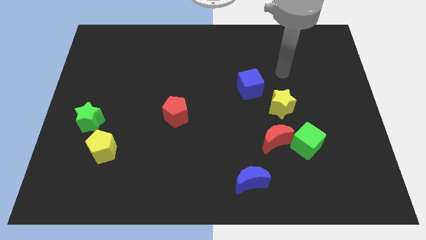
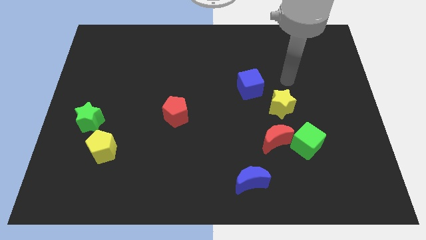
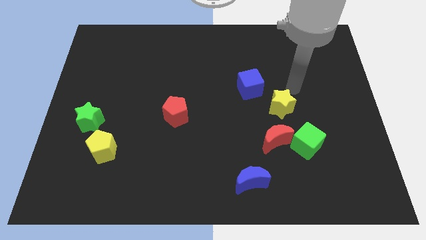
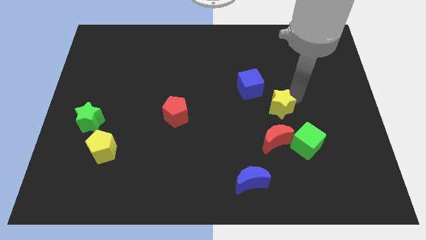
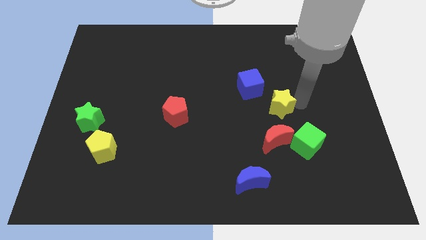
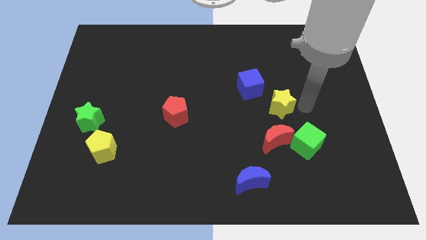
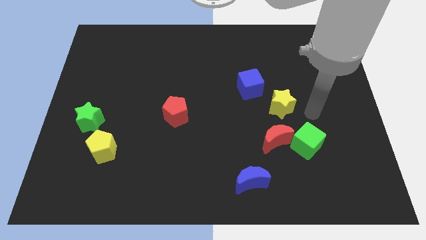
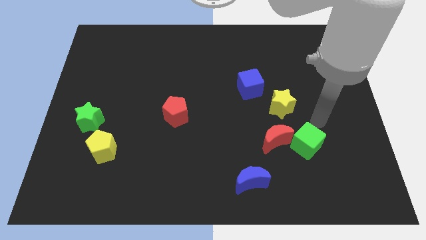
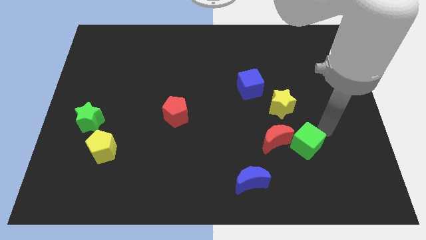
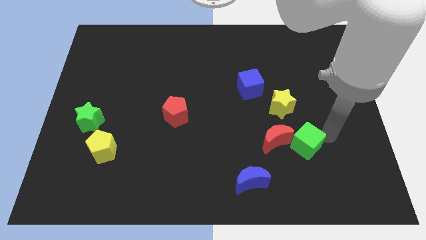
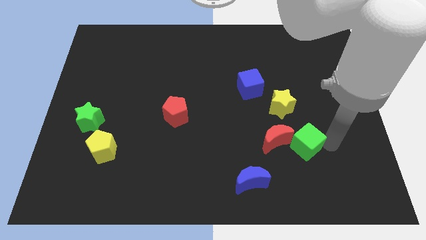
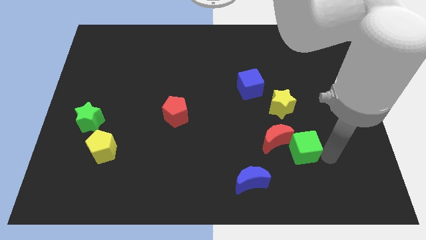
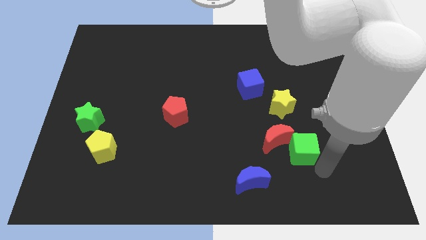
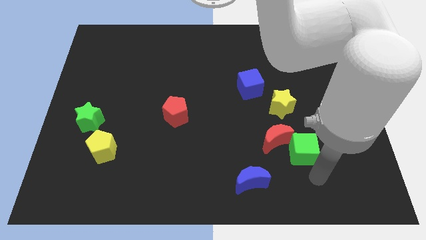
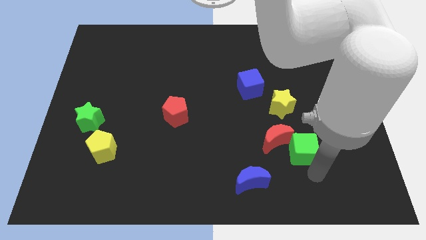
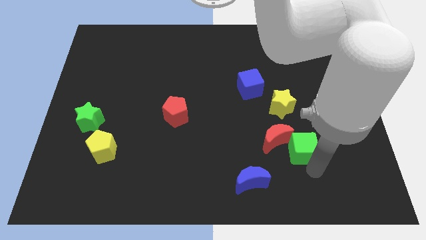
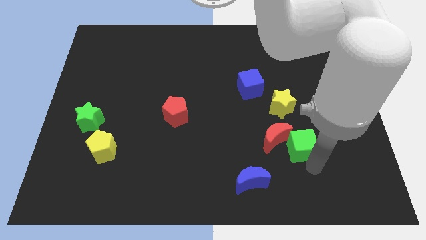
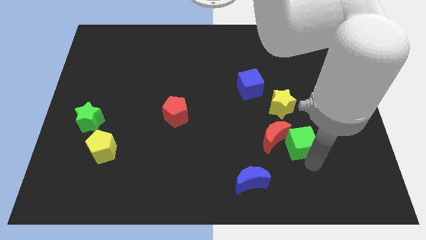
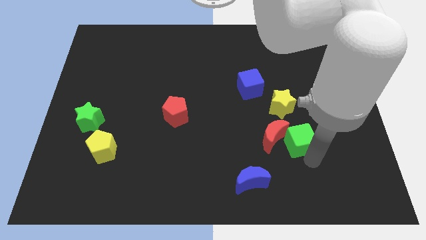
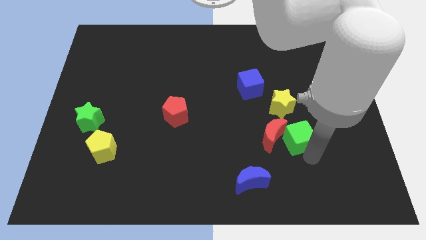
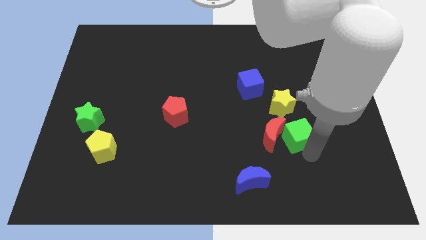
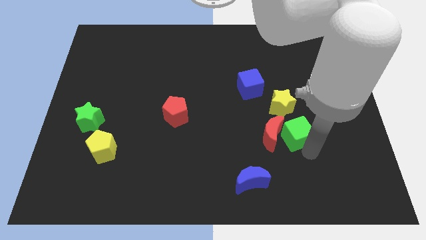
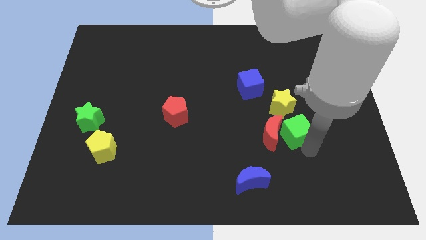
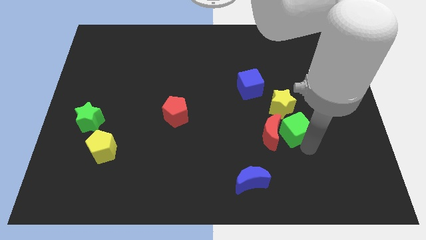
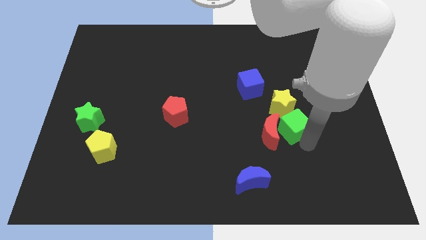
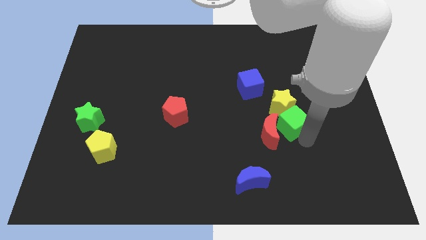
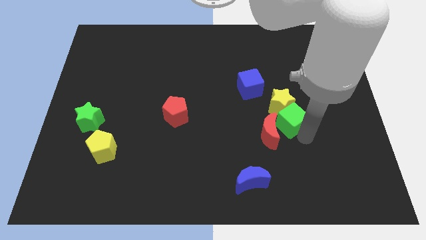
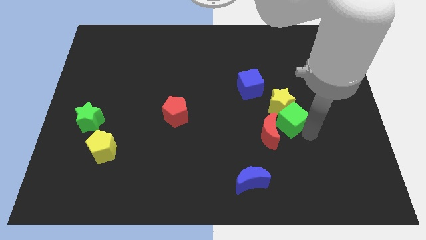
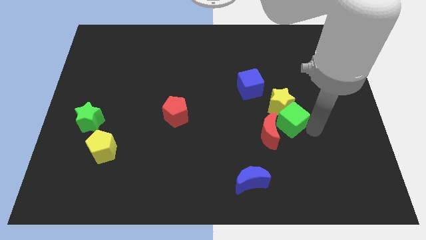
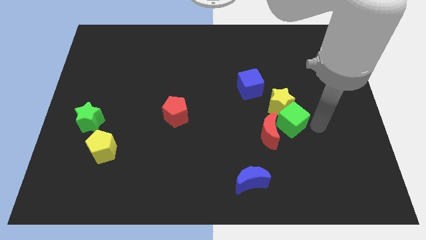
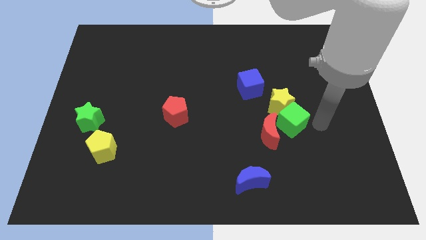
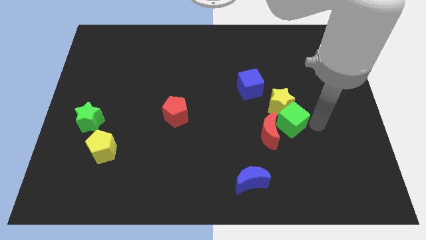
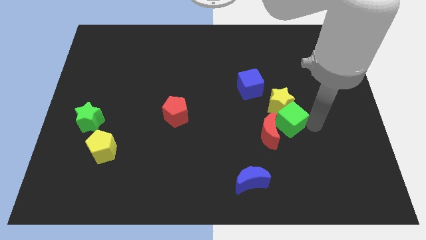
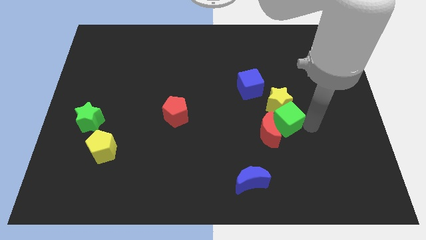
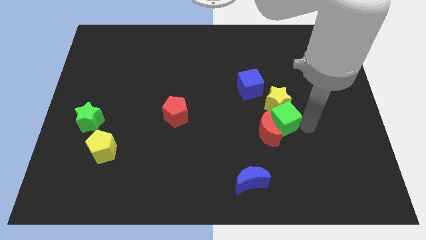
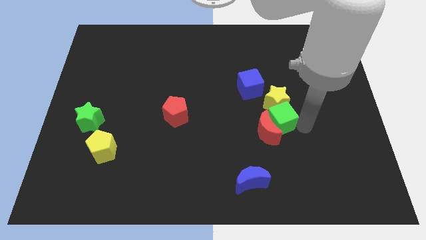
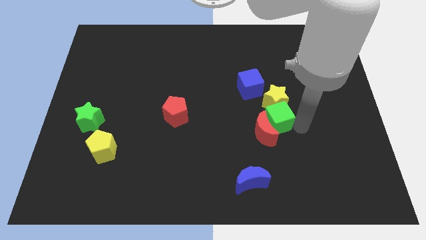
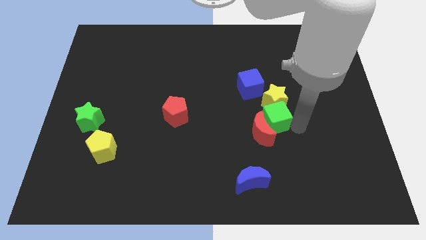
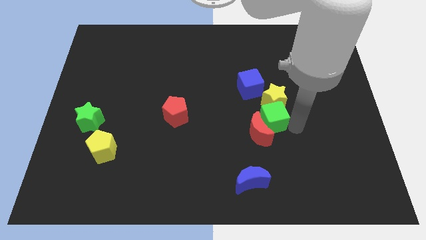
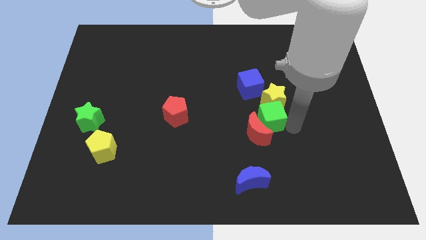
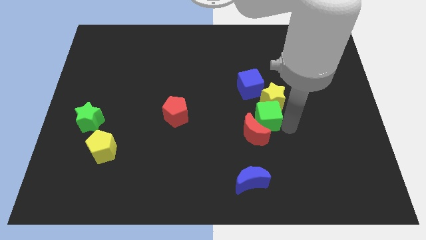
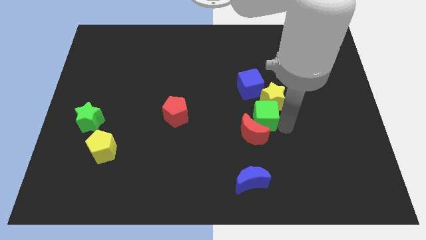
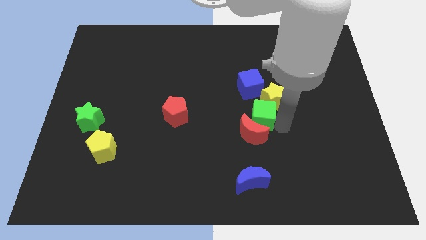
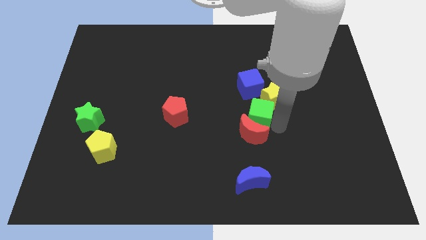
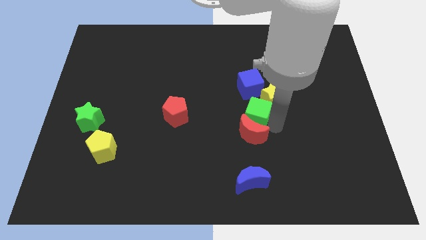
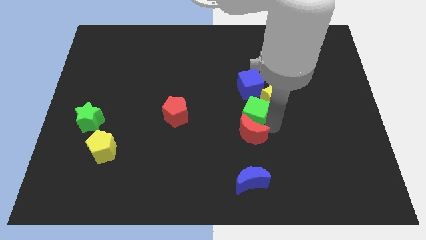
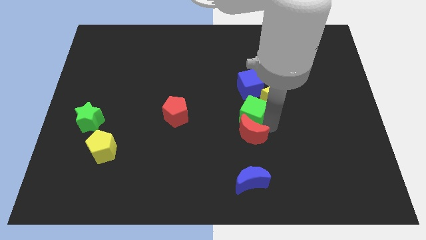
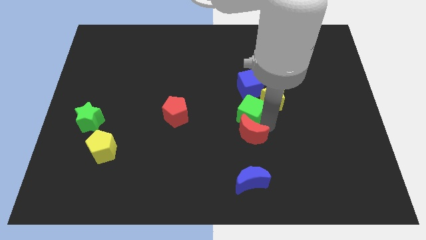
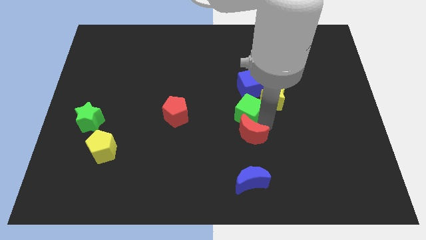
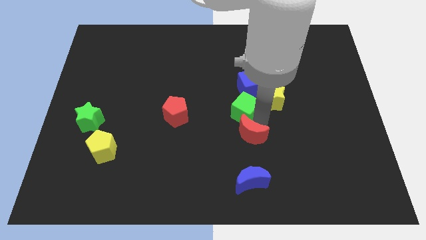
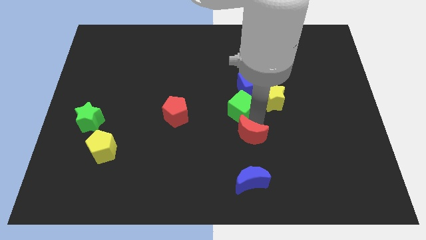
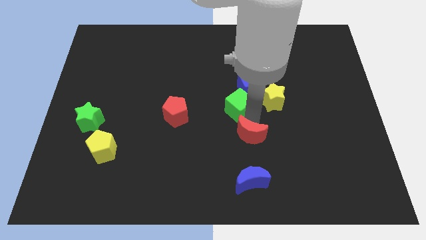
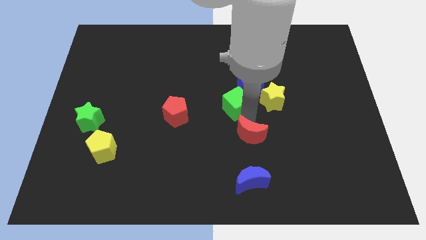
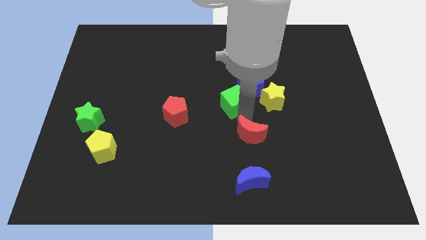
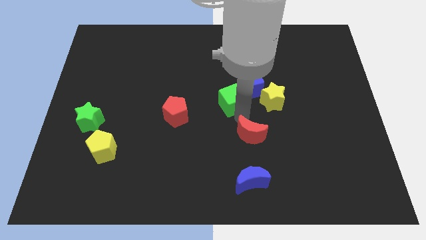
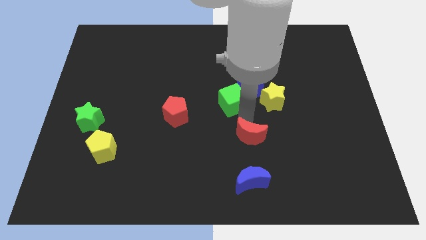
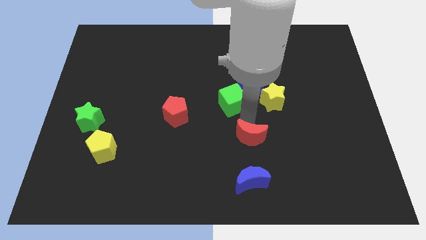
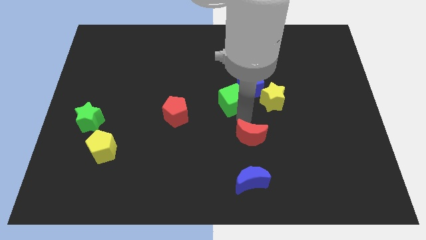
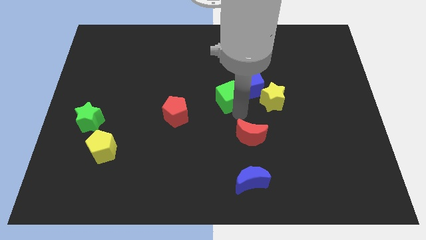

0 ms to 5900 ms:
push the green cube up and then left

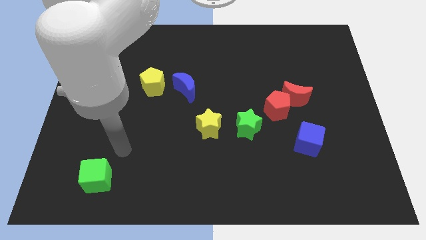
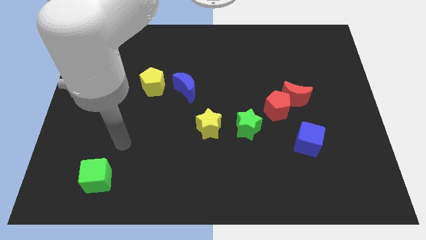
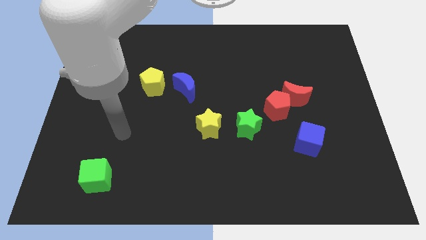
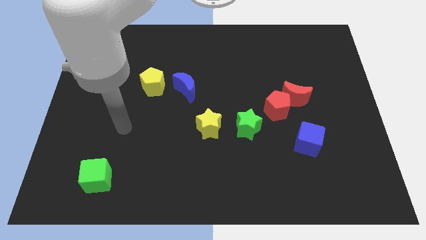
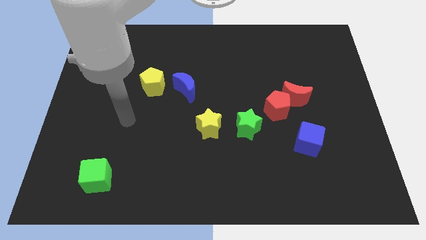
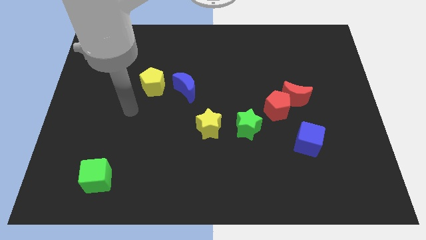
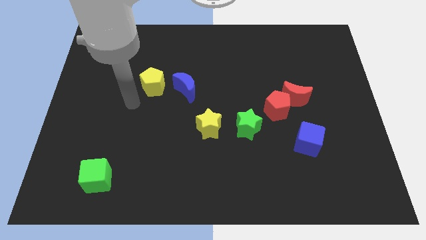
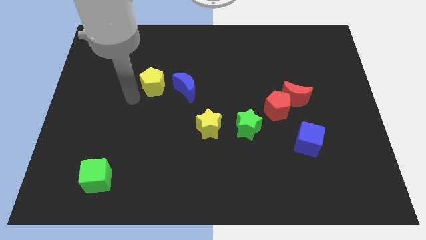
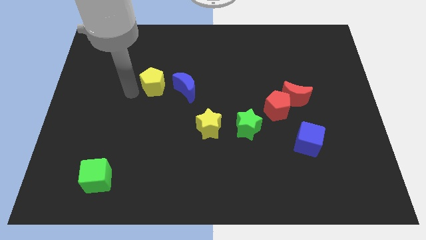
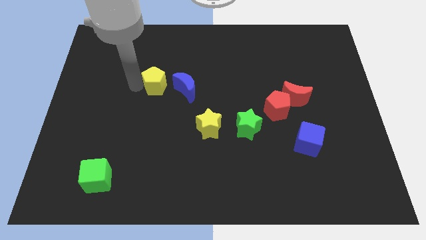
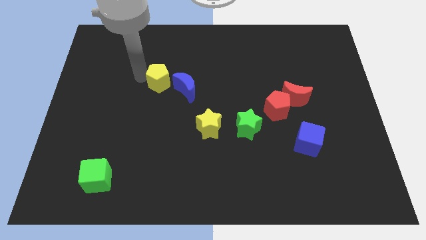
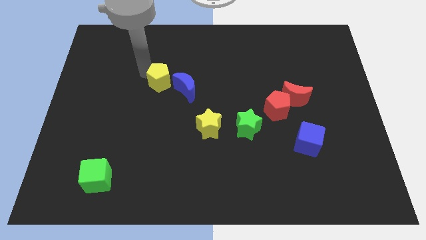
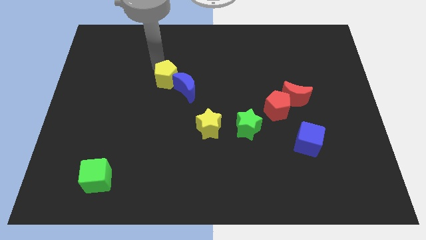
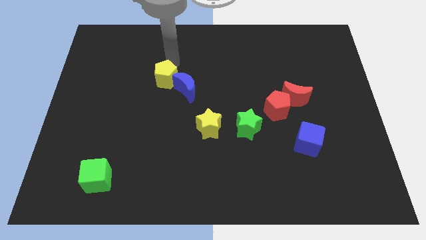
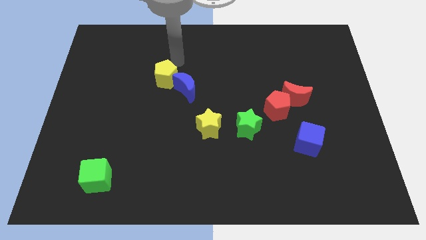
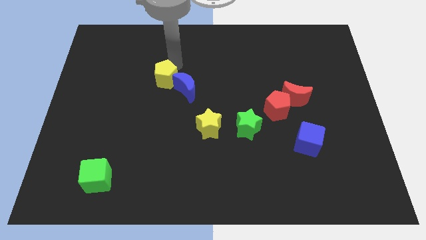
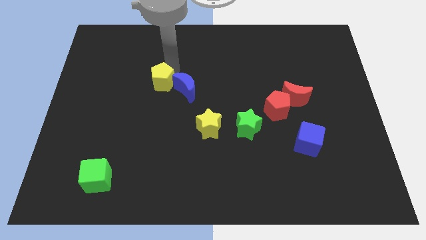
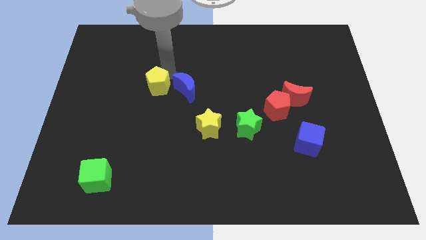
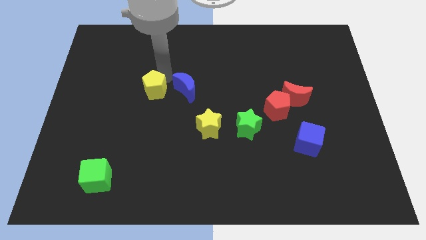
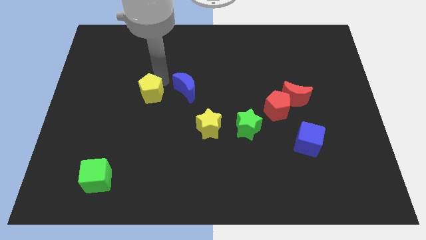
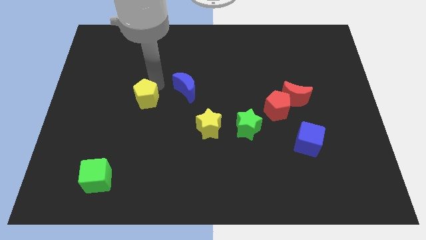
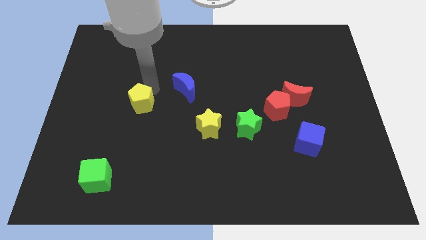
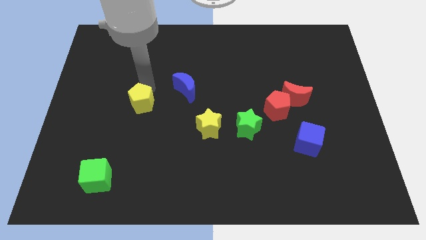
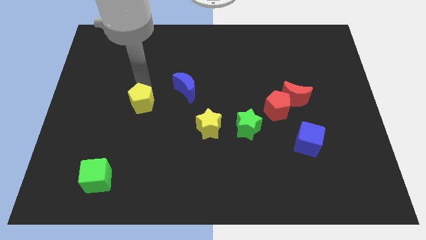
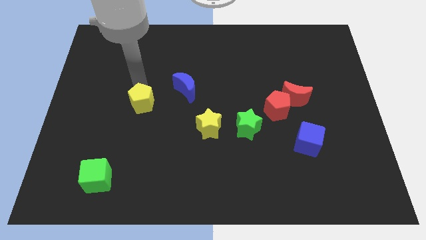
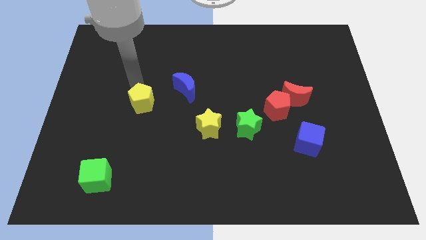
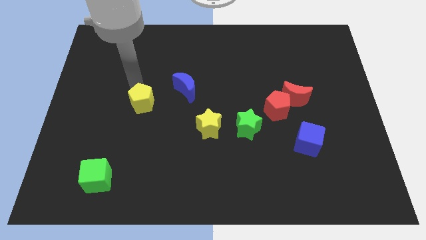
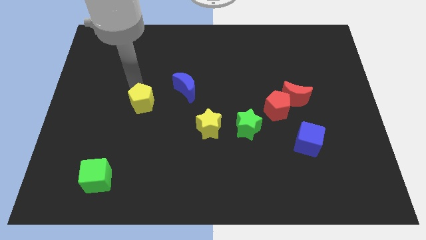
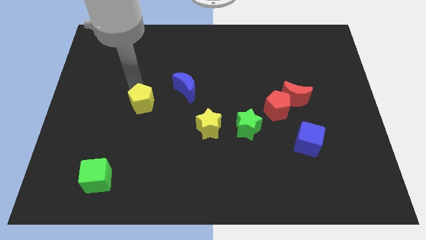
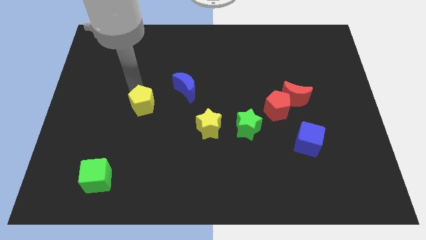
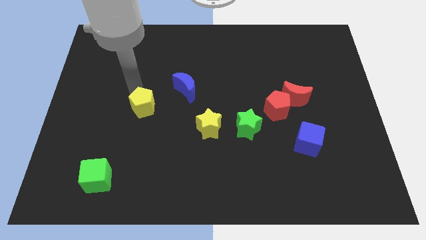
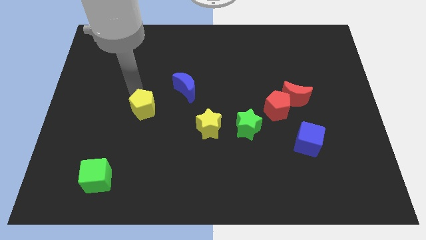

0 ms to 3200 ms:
move the yellow pentagon down a little
